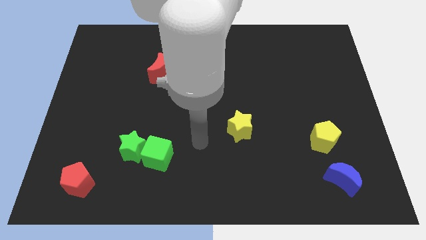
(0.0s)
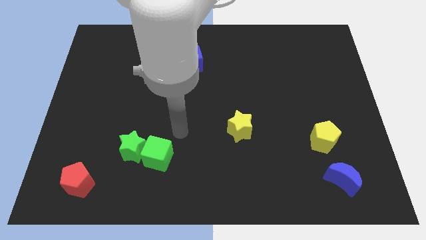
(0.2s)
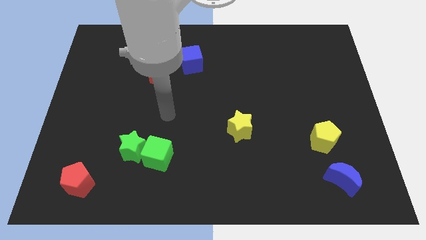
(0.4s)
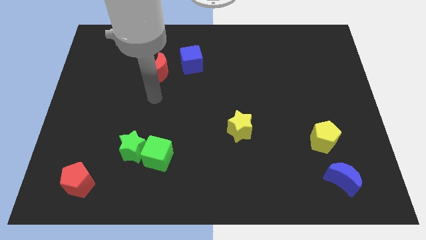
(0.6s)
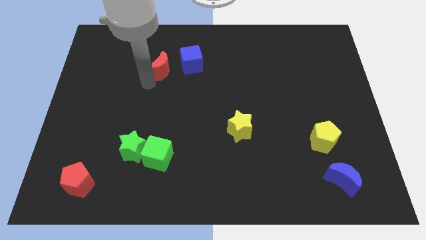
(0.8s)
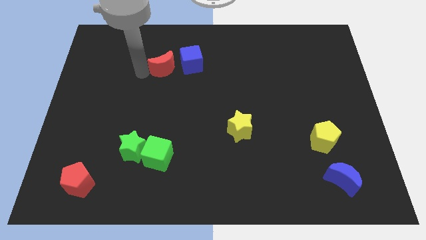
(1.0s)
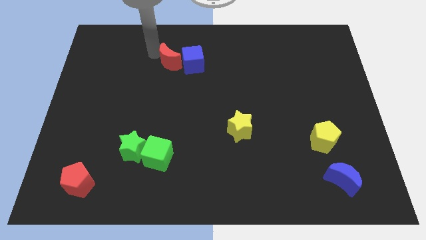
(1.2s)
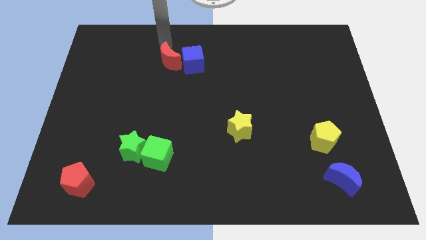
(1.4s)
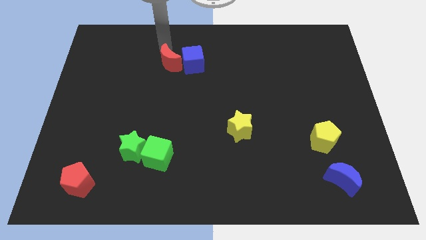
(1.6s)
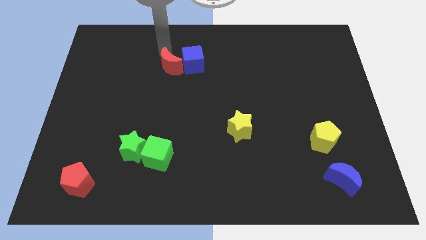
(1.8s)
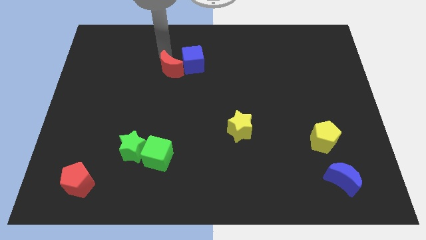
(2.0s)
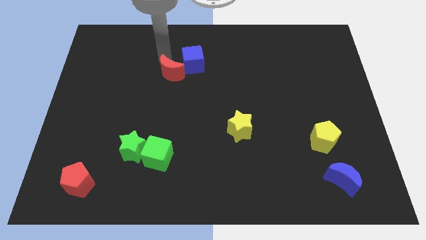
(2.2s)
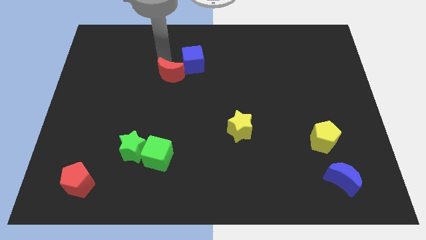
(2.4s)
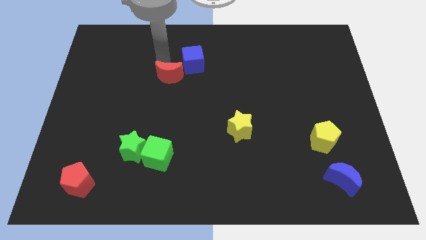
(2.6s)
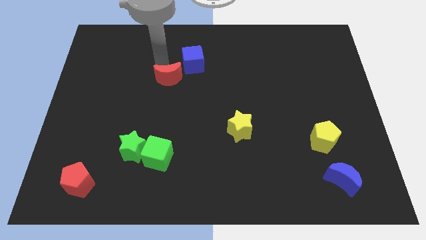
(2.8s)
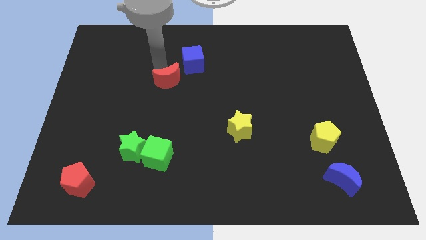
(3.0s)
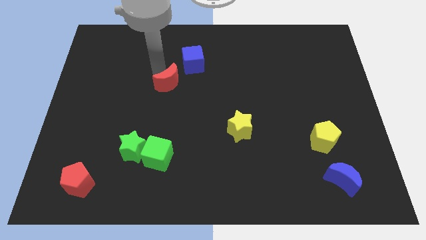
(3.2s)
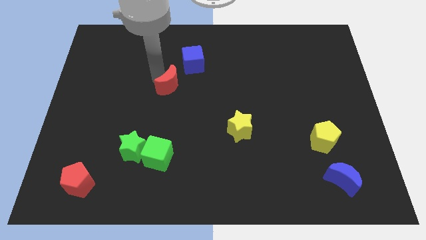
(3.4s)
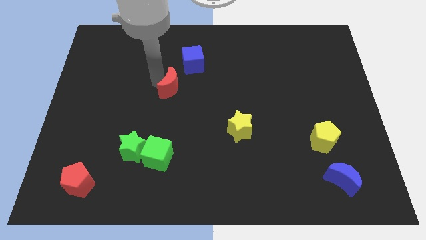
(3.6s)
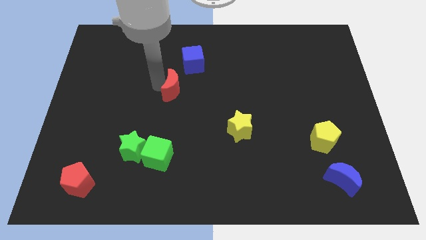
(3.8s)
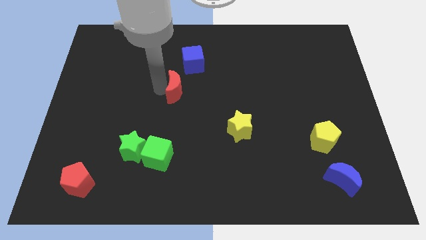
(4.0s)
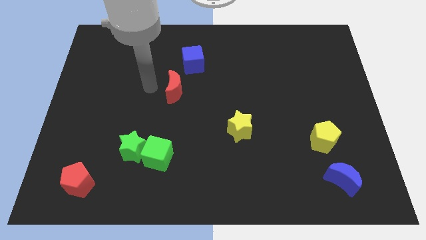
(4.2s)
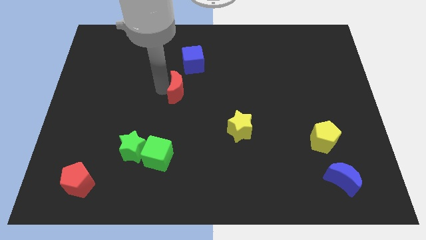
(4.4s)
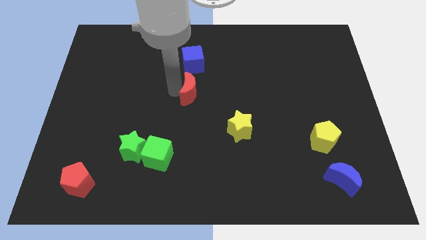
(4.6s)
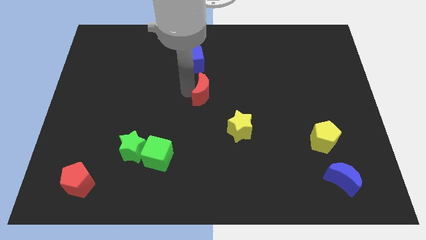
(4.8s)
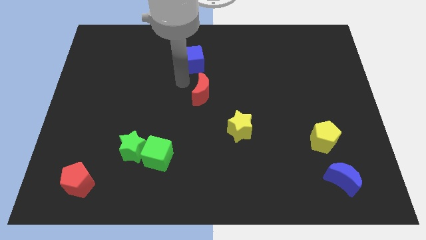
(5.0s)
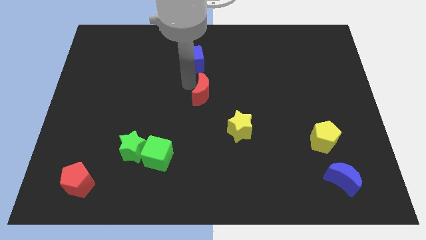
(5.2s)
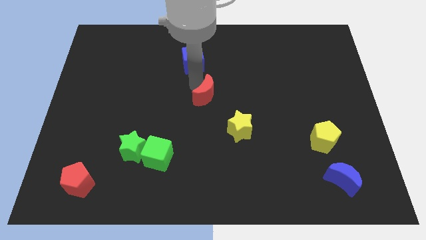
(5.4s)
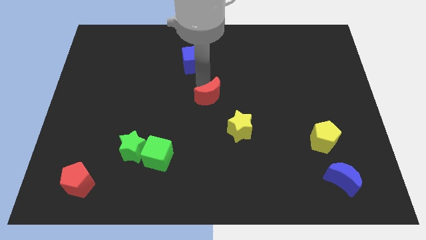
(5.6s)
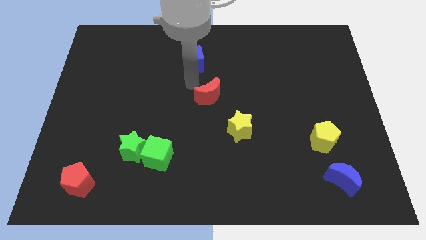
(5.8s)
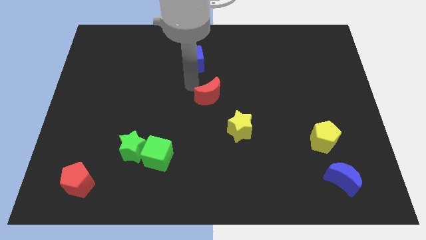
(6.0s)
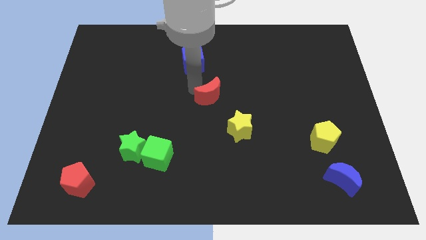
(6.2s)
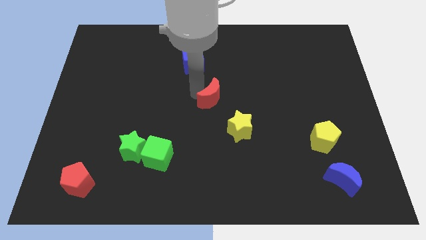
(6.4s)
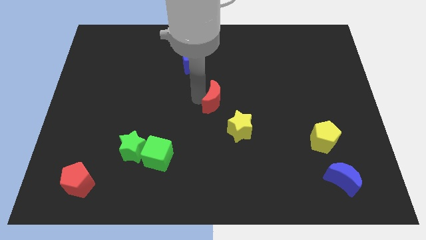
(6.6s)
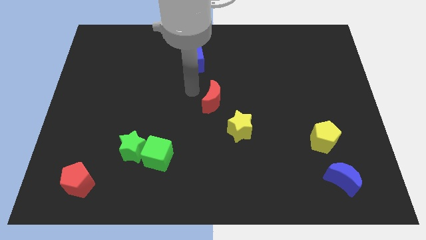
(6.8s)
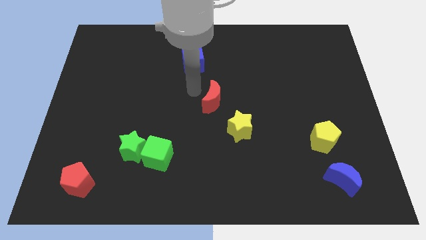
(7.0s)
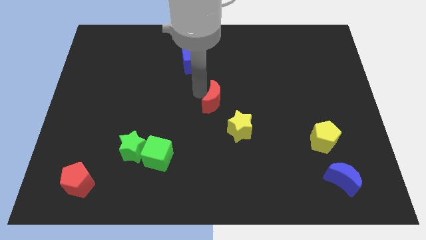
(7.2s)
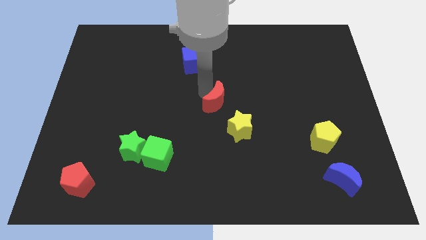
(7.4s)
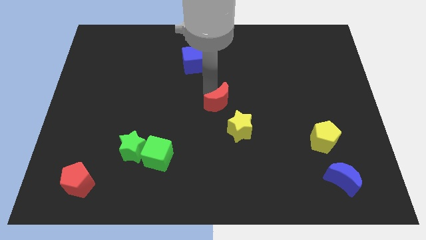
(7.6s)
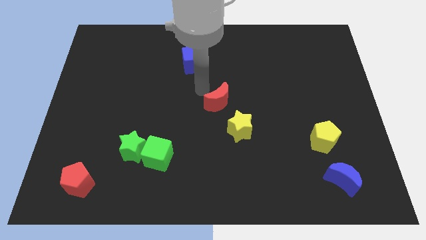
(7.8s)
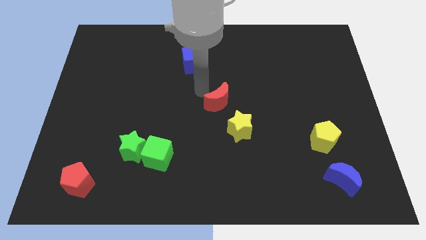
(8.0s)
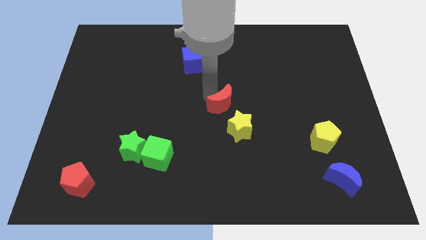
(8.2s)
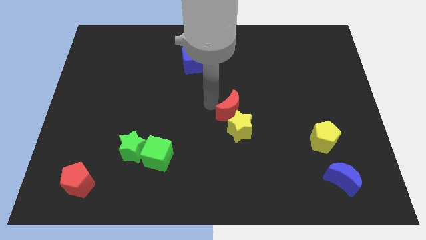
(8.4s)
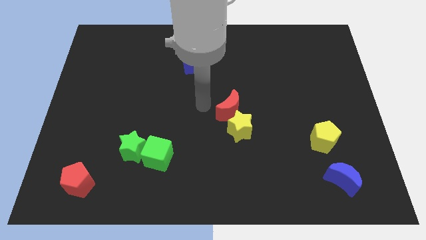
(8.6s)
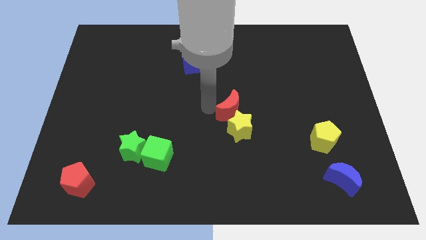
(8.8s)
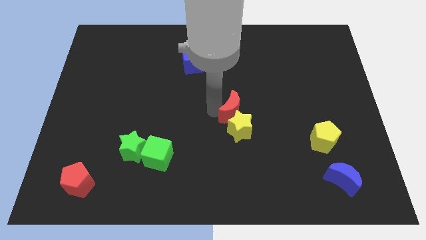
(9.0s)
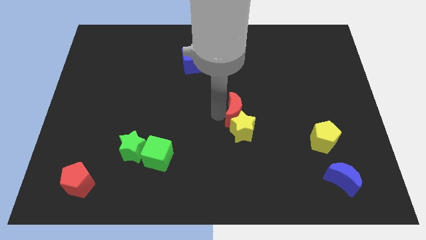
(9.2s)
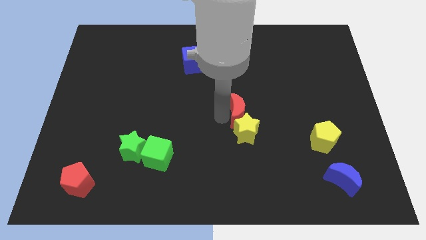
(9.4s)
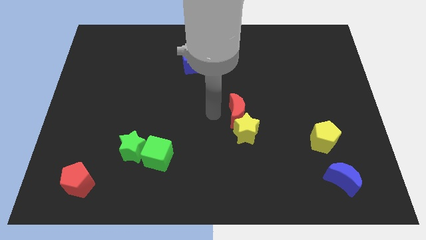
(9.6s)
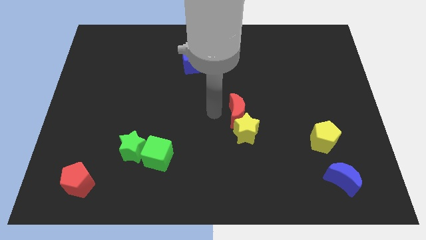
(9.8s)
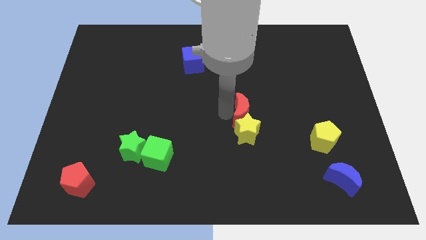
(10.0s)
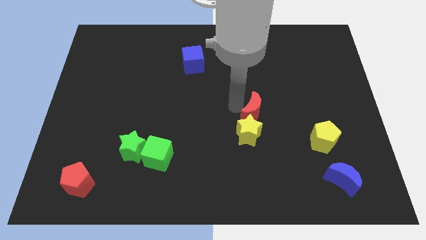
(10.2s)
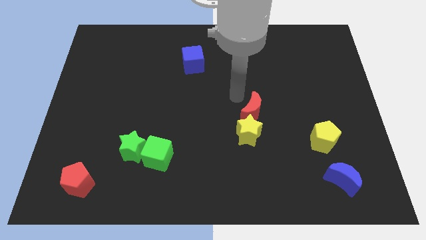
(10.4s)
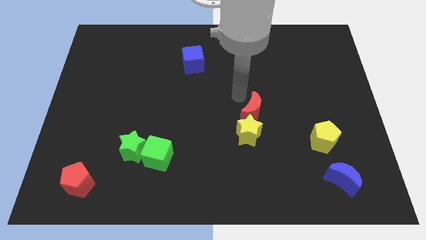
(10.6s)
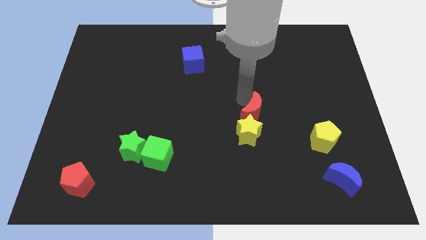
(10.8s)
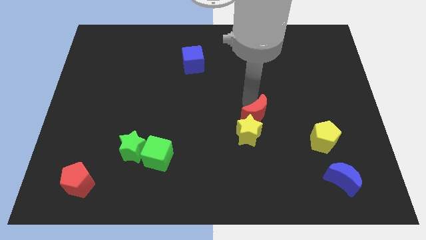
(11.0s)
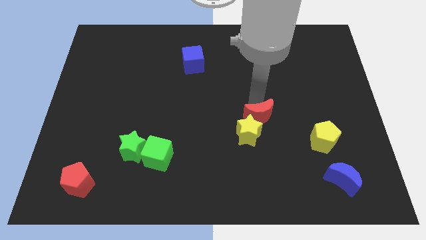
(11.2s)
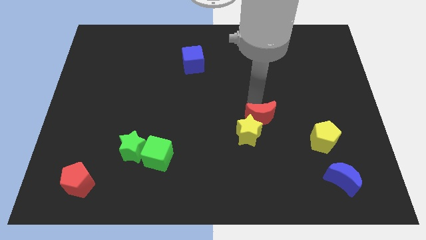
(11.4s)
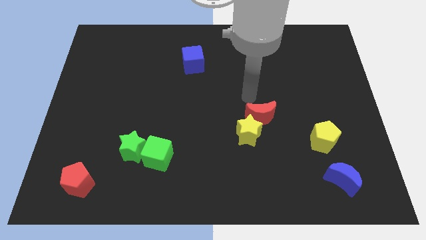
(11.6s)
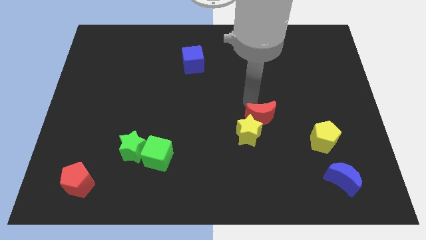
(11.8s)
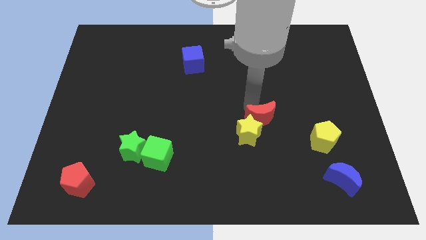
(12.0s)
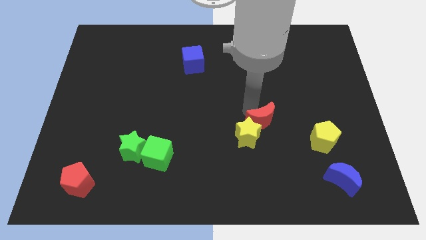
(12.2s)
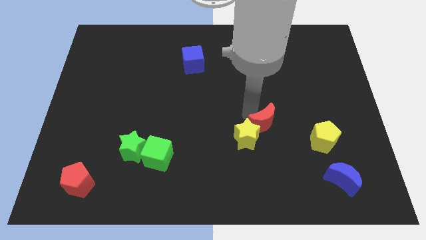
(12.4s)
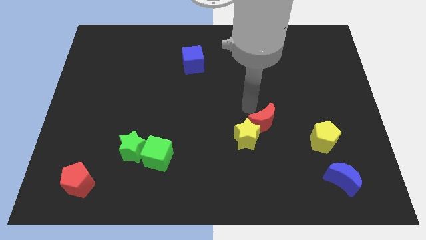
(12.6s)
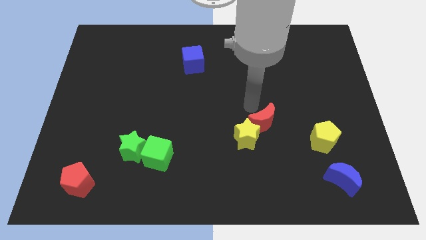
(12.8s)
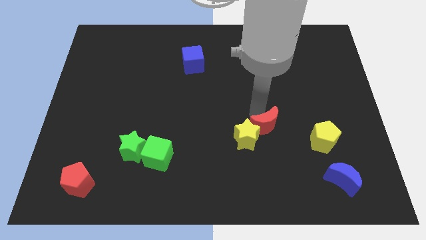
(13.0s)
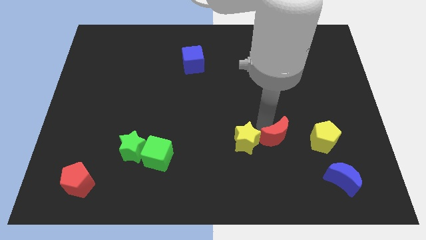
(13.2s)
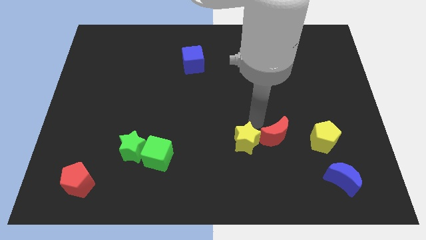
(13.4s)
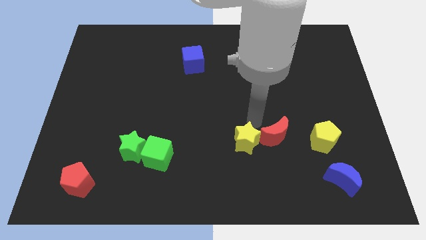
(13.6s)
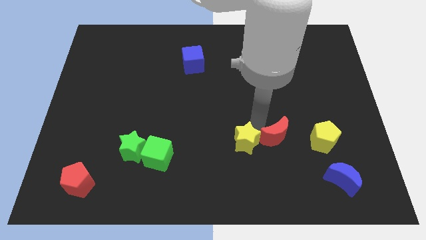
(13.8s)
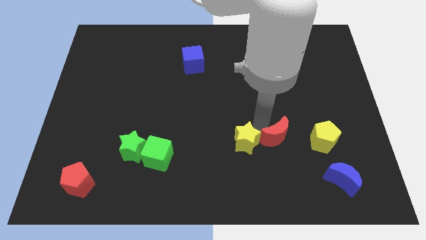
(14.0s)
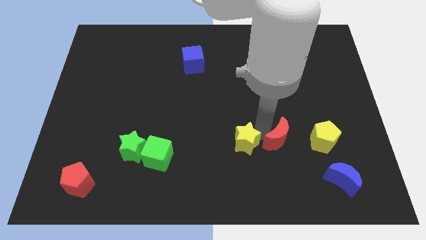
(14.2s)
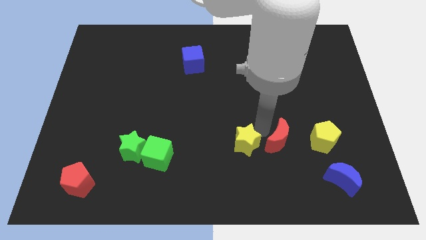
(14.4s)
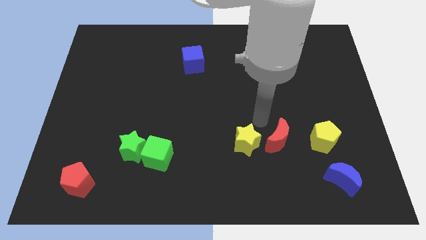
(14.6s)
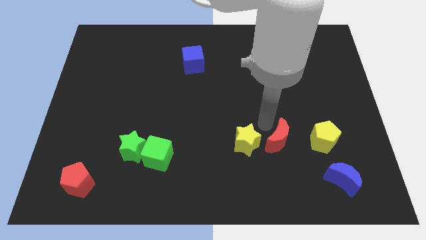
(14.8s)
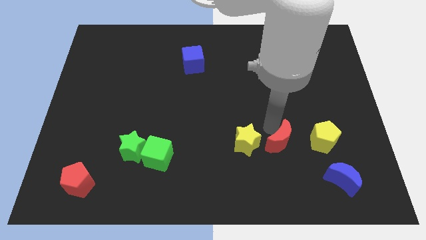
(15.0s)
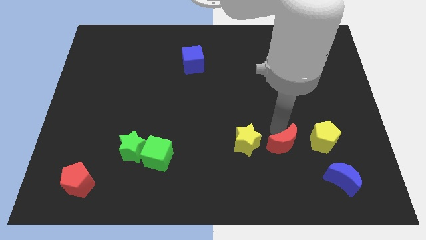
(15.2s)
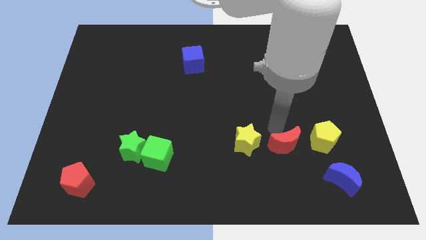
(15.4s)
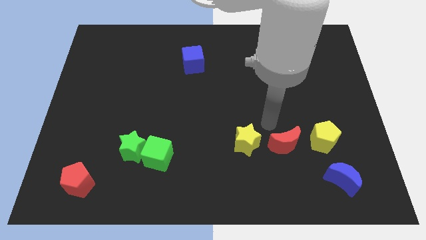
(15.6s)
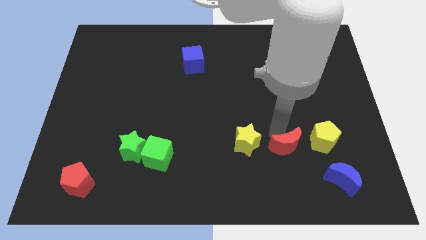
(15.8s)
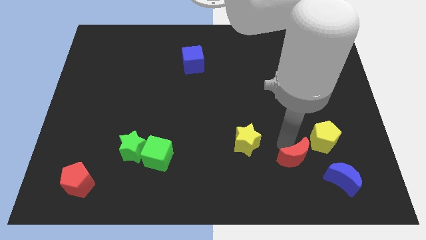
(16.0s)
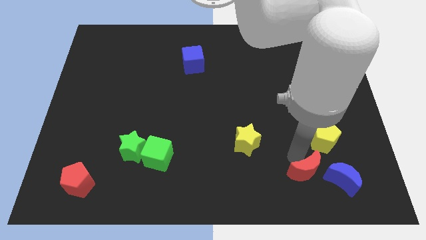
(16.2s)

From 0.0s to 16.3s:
move the red moon to the bottom side of the yellow pentagon
